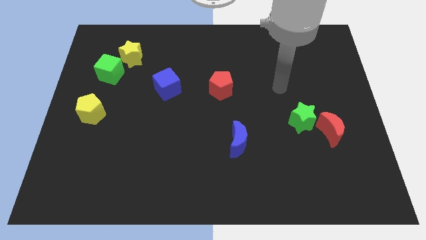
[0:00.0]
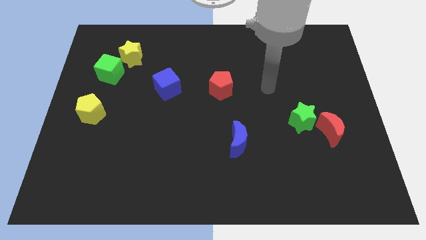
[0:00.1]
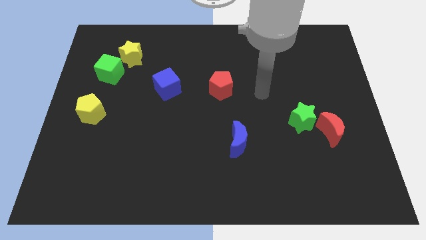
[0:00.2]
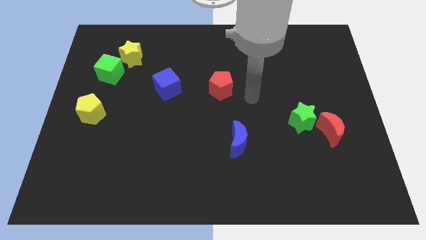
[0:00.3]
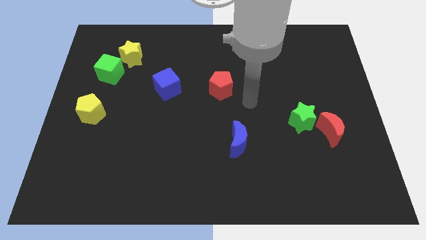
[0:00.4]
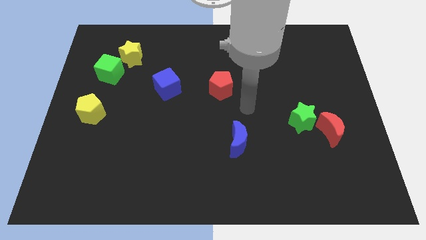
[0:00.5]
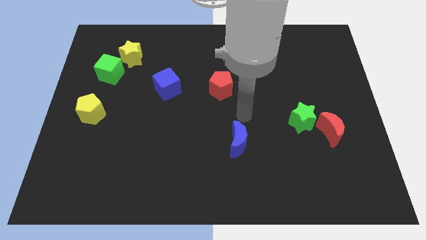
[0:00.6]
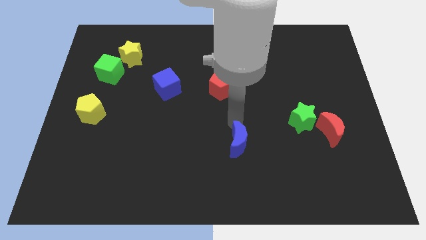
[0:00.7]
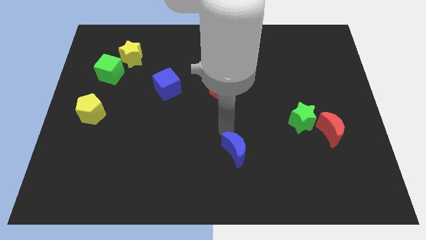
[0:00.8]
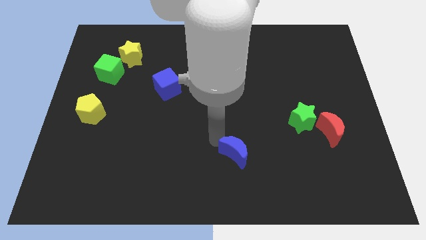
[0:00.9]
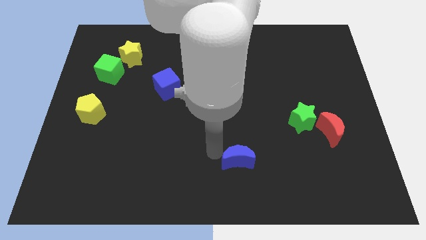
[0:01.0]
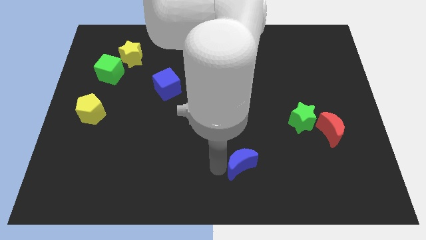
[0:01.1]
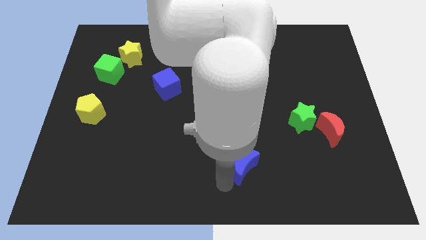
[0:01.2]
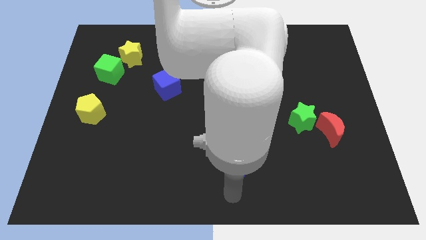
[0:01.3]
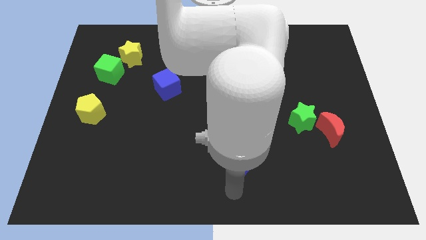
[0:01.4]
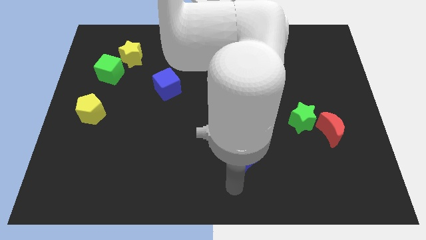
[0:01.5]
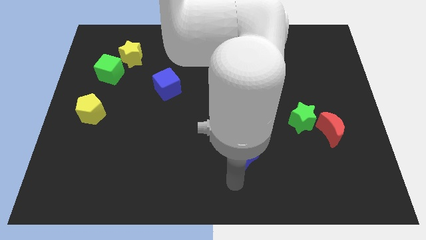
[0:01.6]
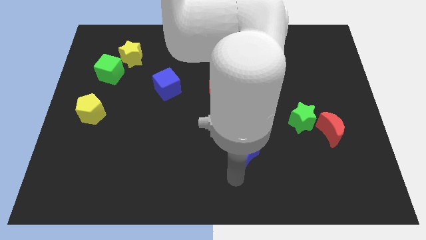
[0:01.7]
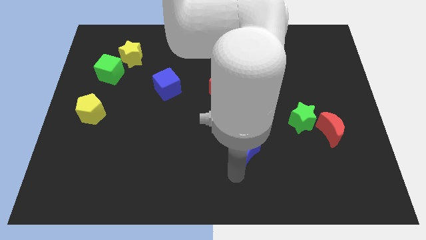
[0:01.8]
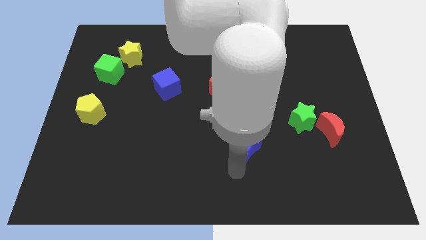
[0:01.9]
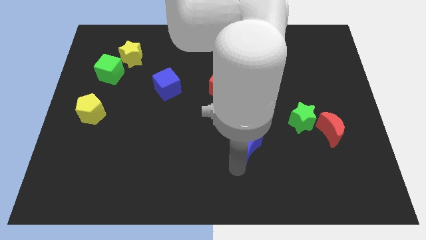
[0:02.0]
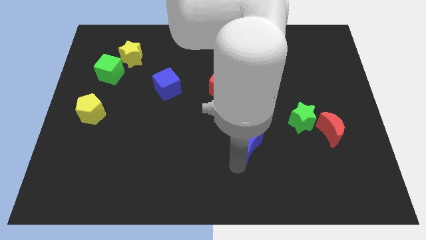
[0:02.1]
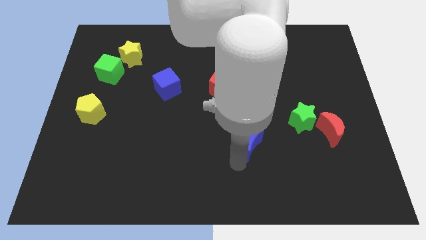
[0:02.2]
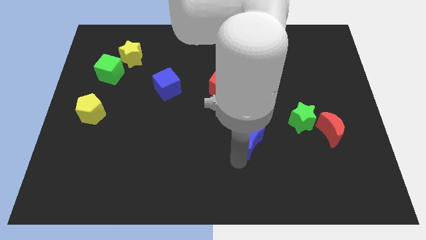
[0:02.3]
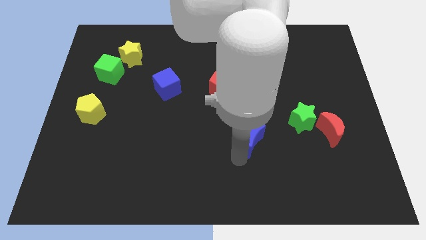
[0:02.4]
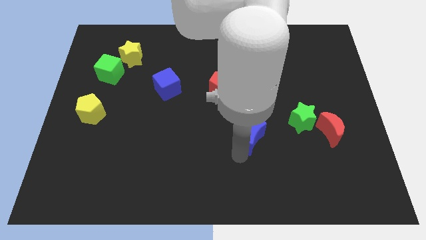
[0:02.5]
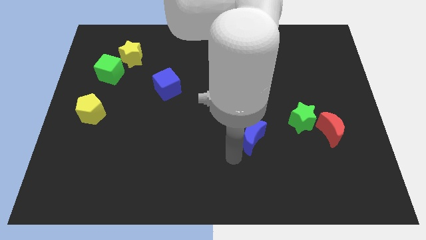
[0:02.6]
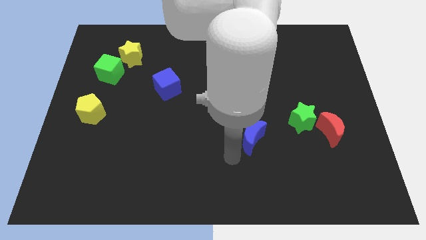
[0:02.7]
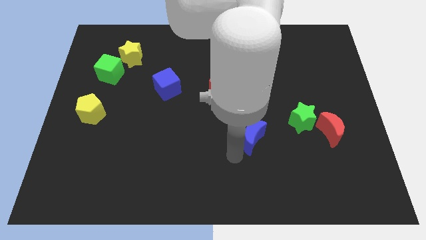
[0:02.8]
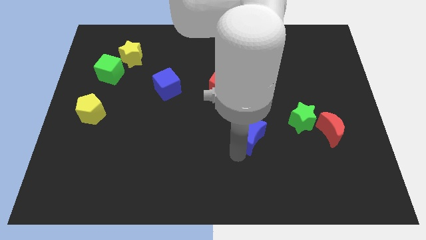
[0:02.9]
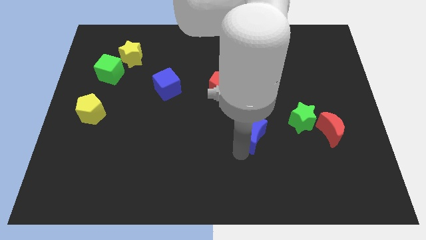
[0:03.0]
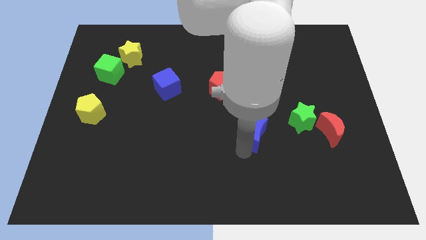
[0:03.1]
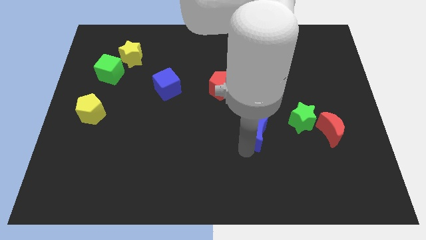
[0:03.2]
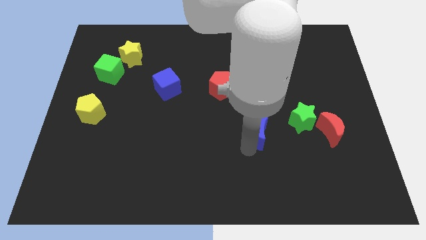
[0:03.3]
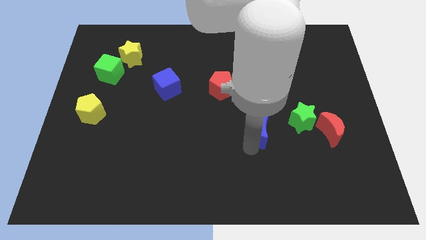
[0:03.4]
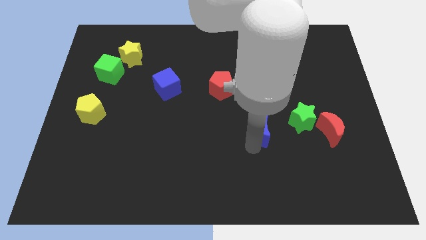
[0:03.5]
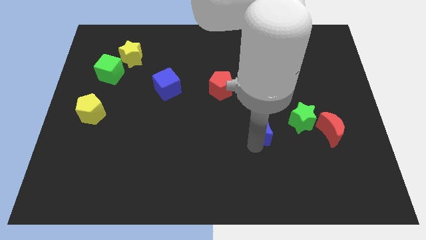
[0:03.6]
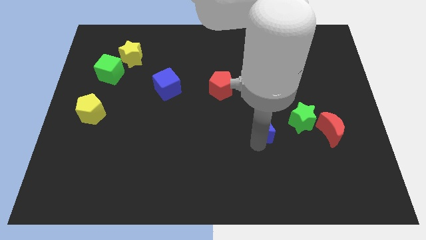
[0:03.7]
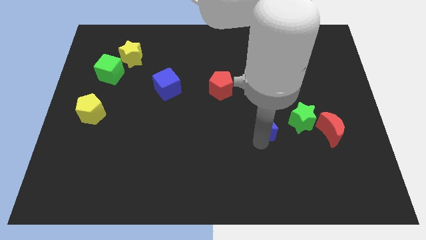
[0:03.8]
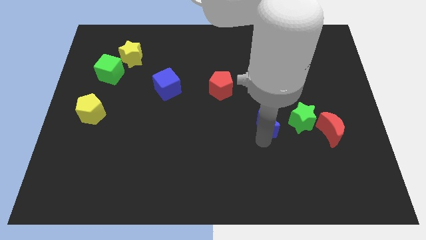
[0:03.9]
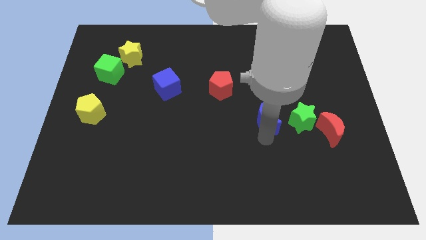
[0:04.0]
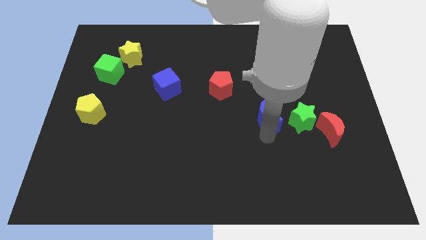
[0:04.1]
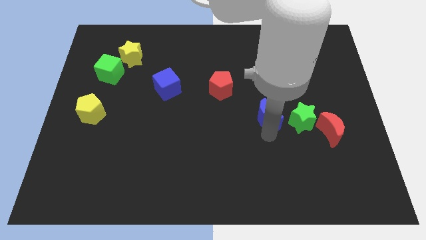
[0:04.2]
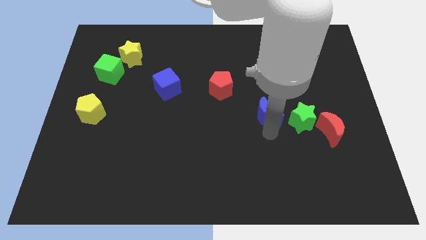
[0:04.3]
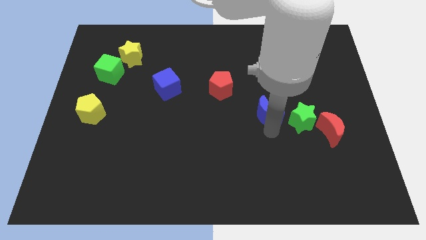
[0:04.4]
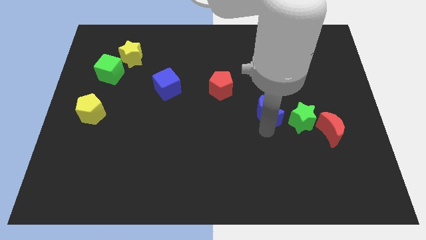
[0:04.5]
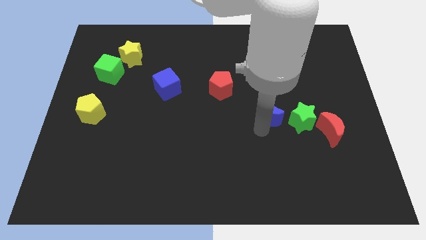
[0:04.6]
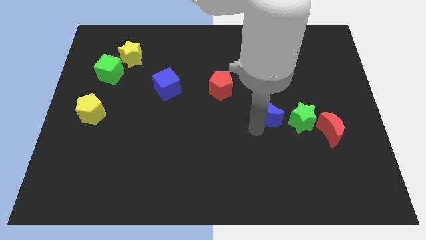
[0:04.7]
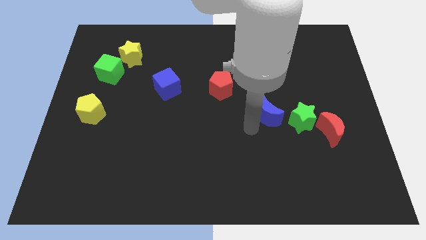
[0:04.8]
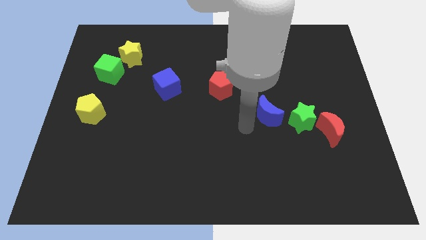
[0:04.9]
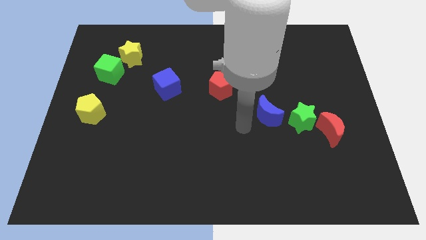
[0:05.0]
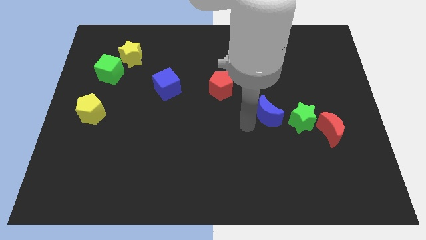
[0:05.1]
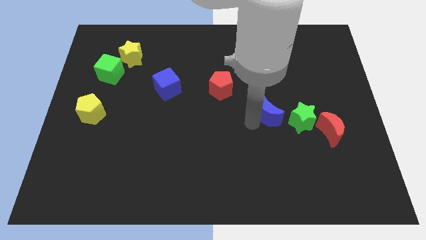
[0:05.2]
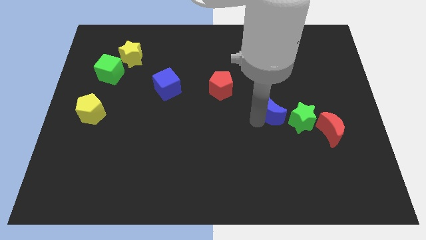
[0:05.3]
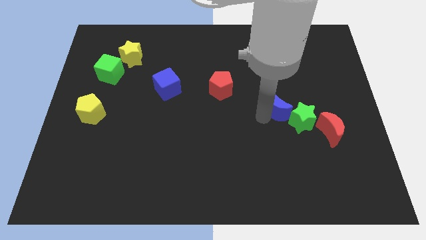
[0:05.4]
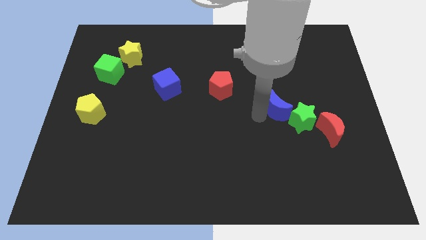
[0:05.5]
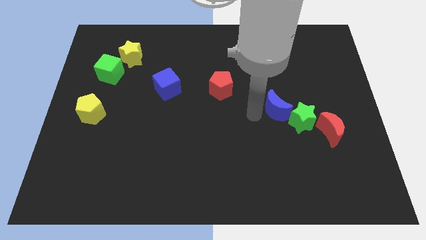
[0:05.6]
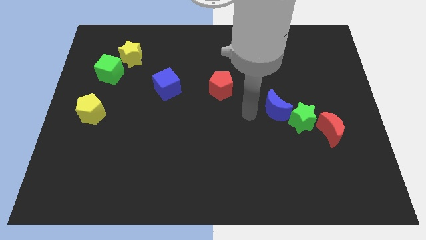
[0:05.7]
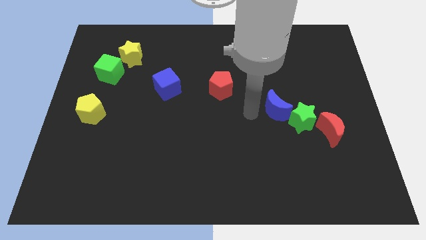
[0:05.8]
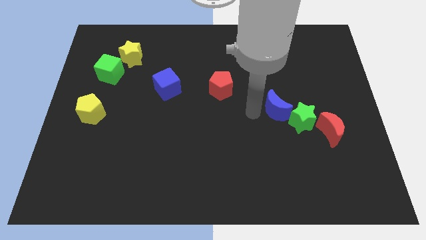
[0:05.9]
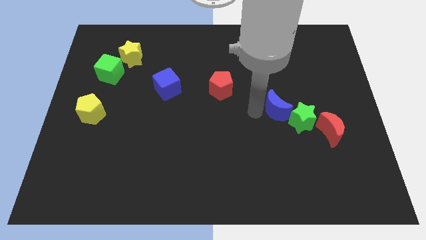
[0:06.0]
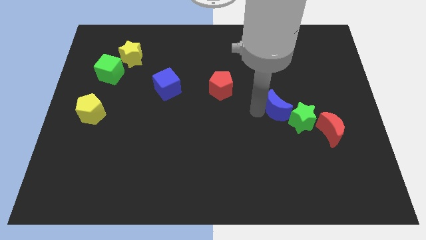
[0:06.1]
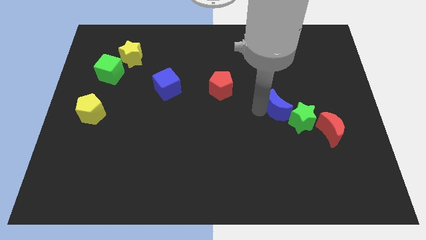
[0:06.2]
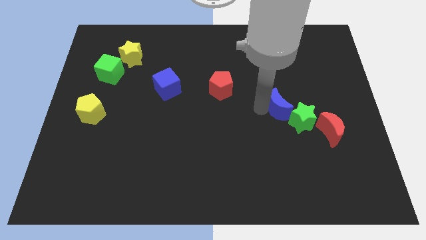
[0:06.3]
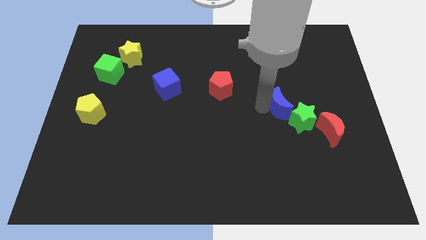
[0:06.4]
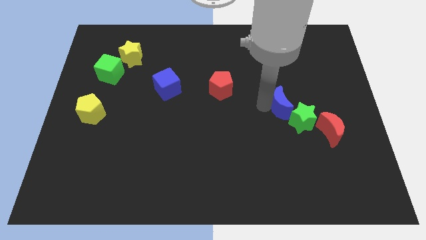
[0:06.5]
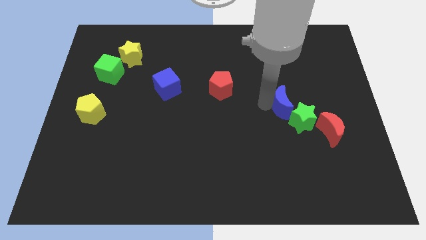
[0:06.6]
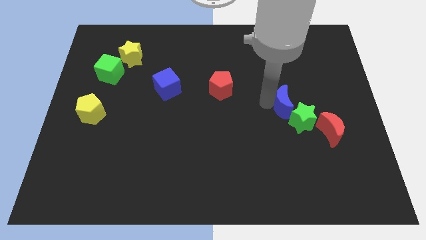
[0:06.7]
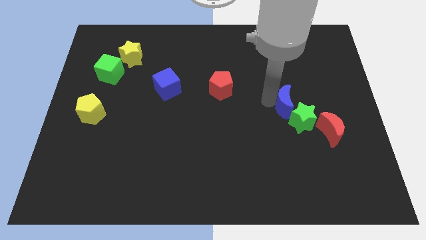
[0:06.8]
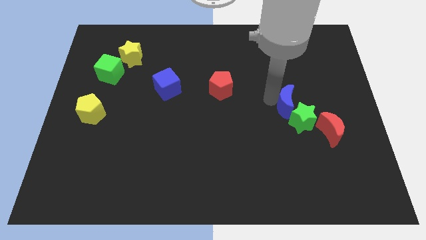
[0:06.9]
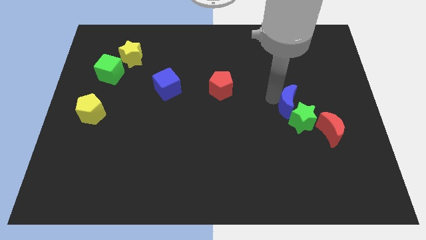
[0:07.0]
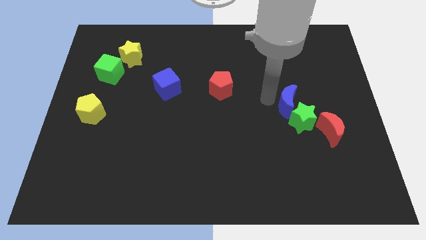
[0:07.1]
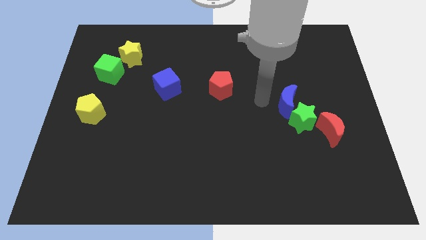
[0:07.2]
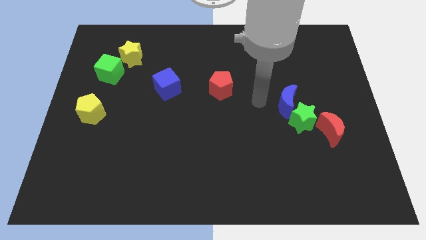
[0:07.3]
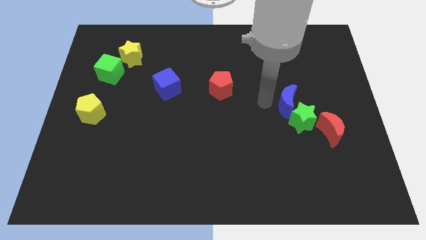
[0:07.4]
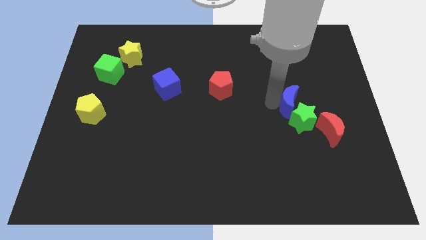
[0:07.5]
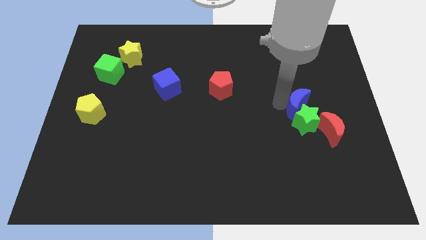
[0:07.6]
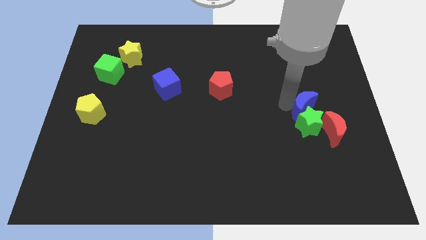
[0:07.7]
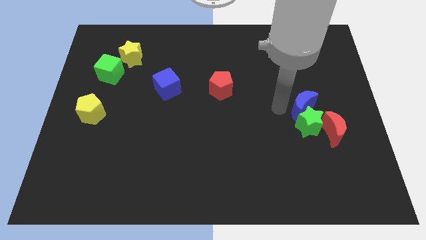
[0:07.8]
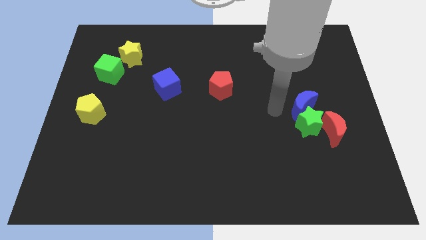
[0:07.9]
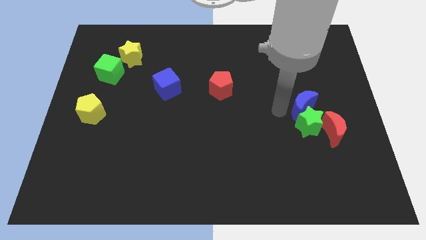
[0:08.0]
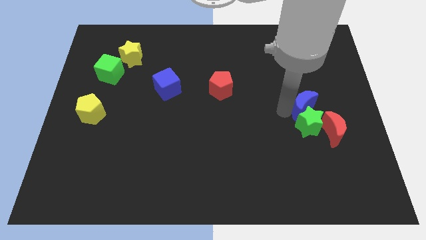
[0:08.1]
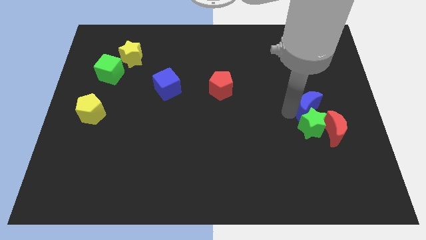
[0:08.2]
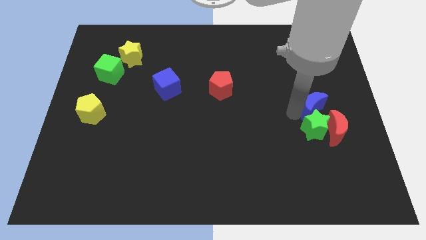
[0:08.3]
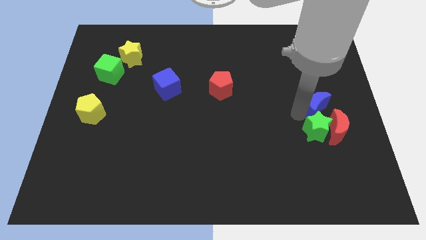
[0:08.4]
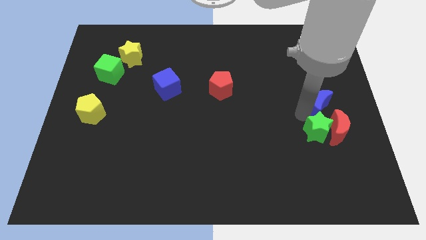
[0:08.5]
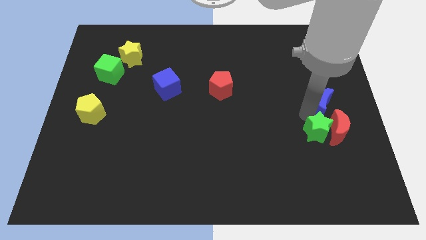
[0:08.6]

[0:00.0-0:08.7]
push the blue moon to the right side of the board
